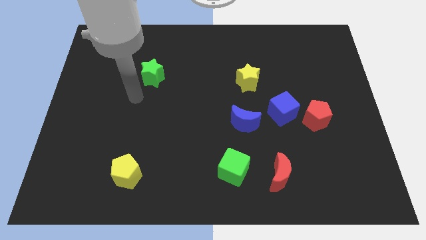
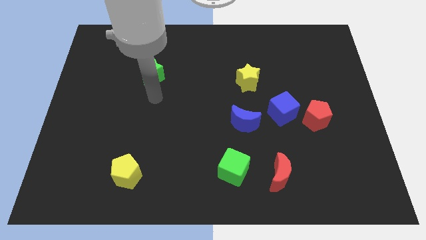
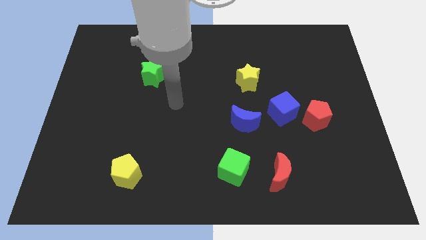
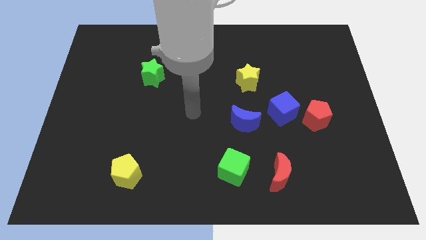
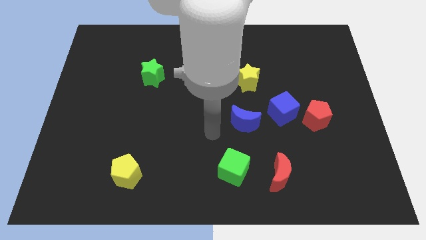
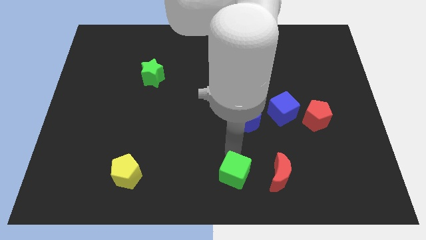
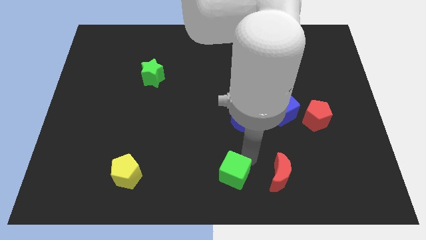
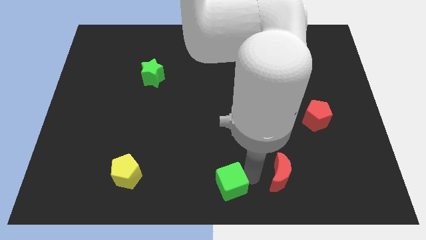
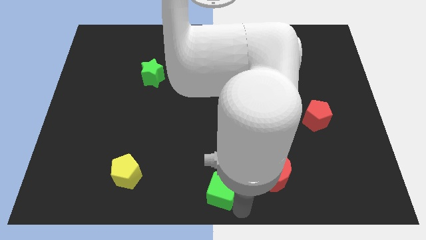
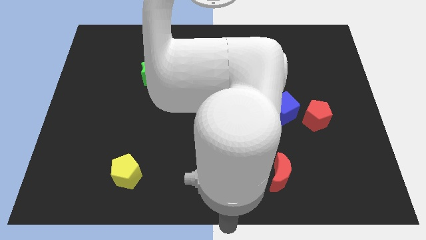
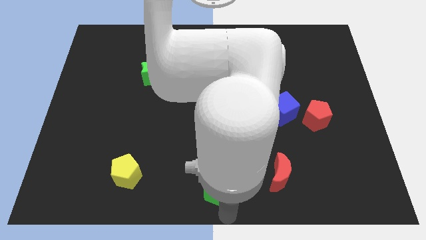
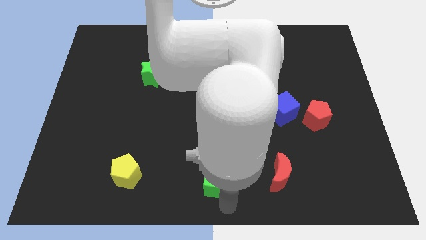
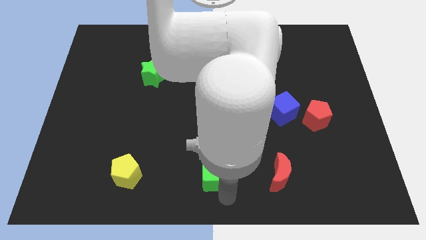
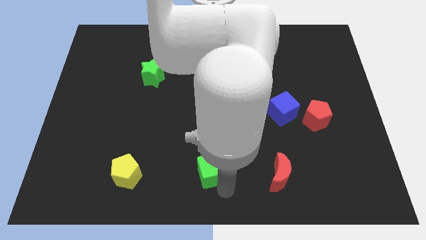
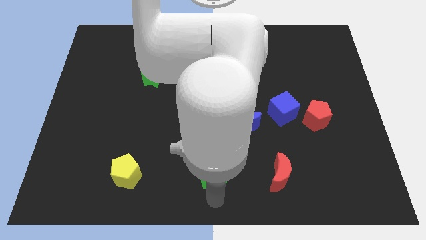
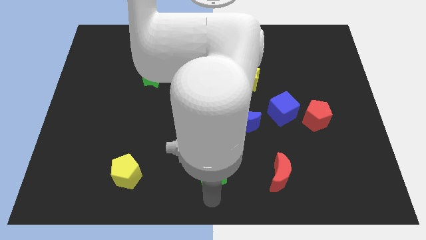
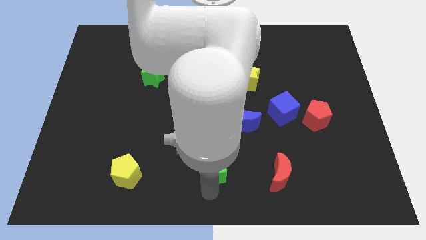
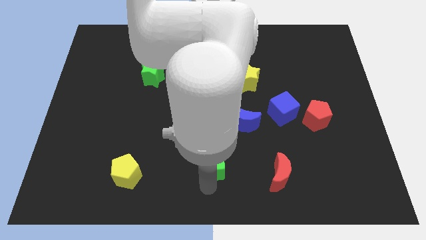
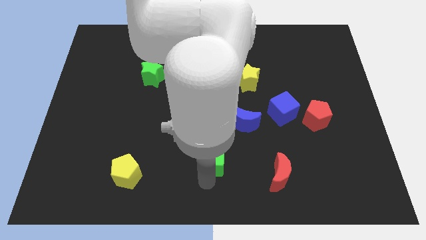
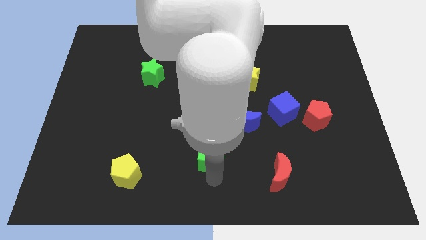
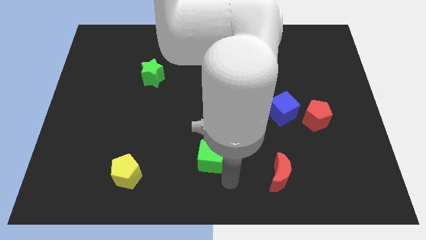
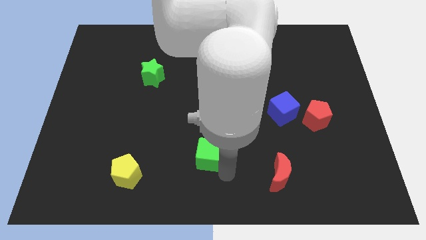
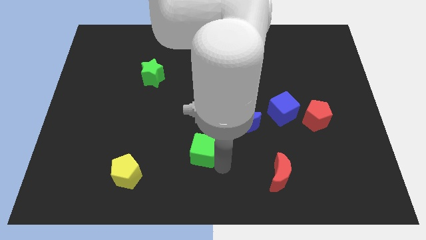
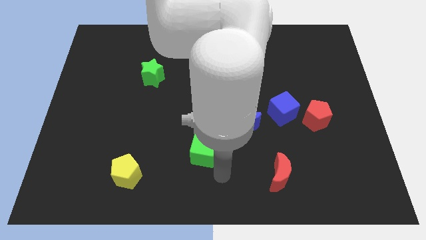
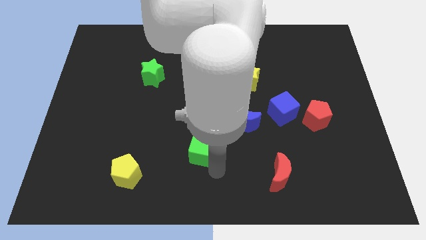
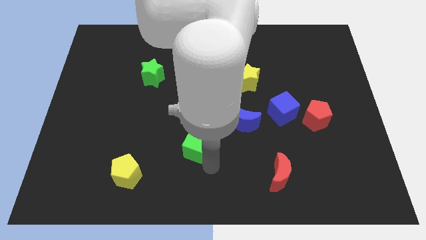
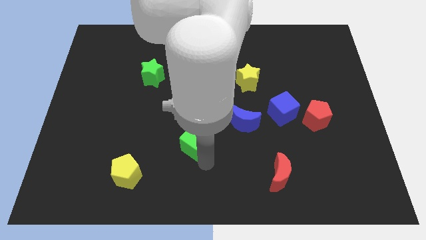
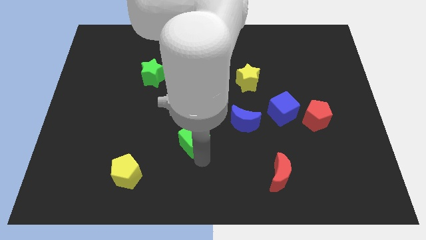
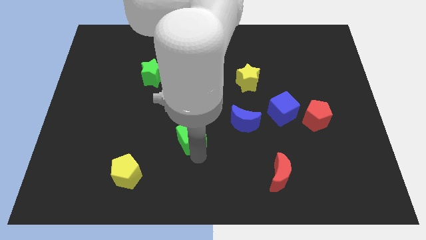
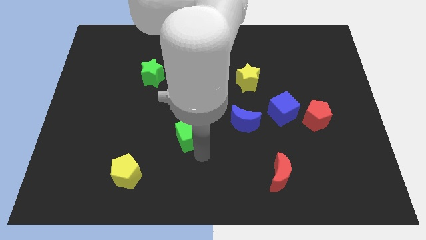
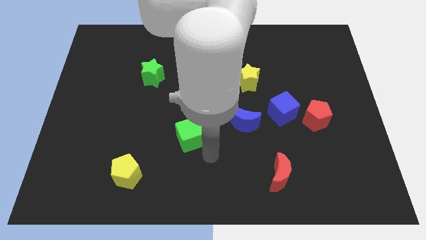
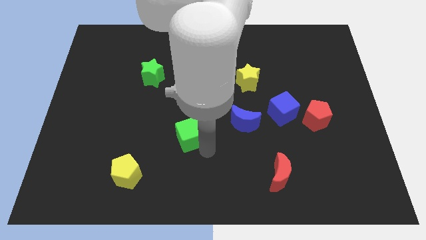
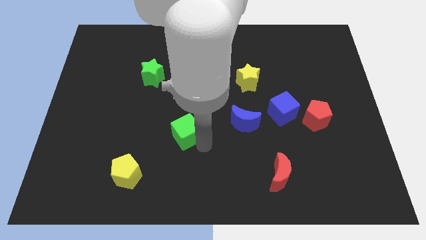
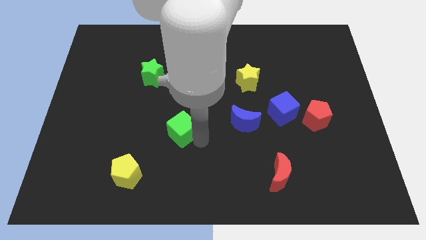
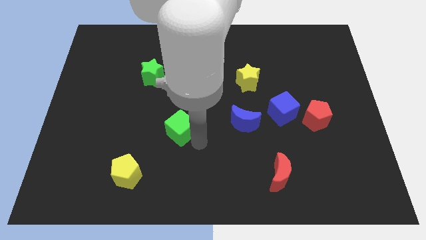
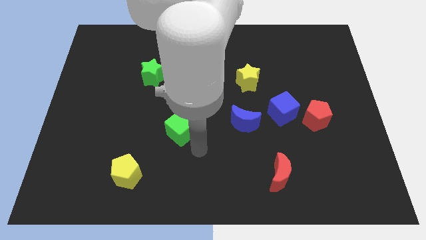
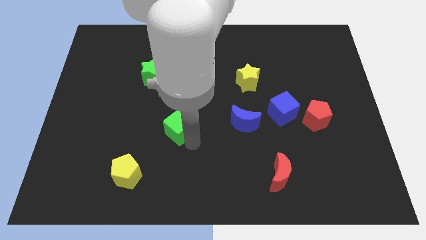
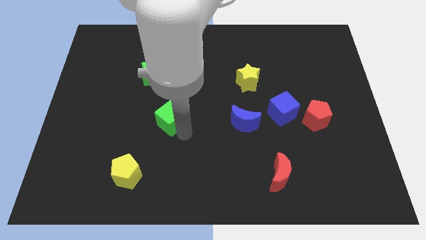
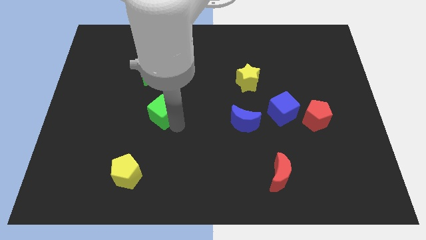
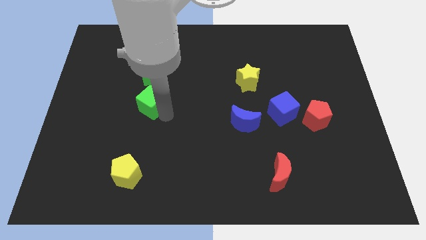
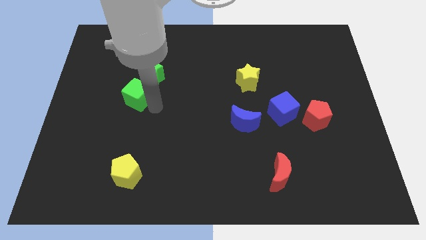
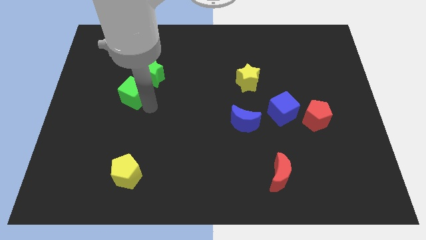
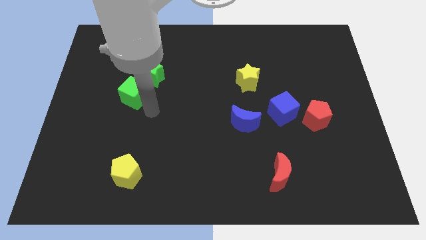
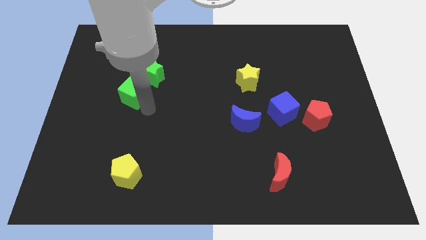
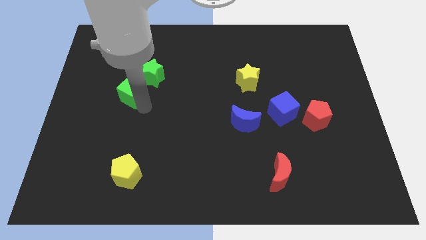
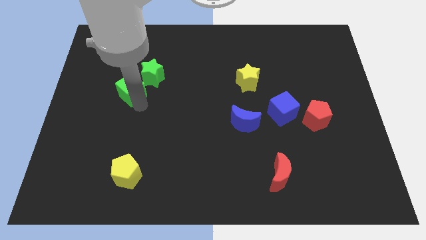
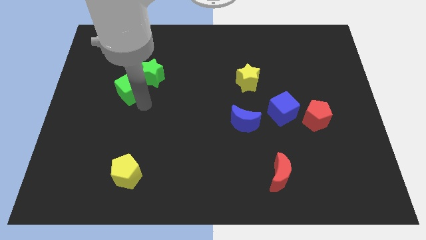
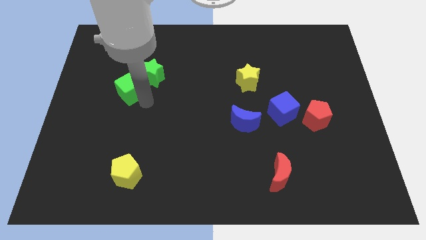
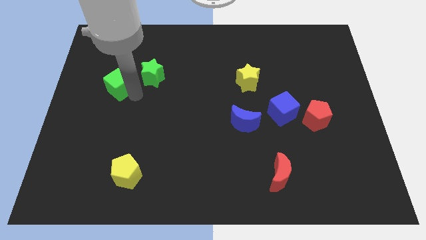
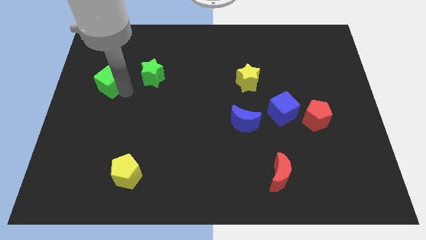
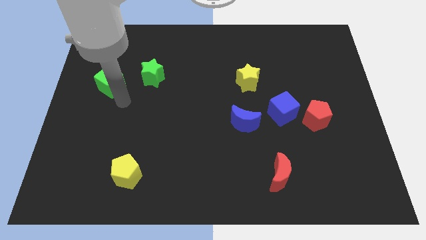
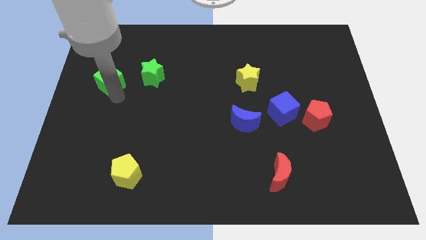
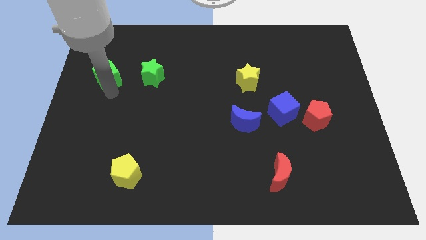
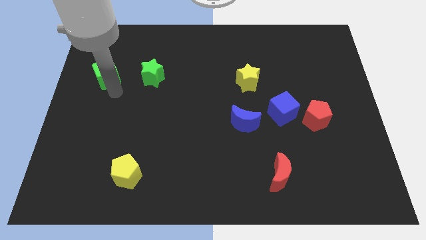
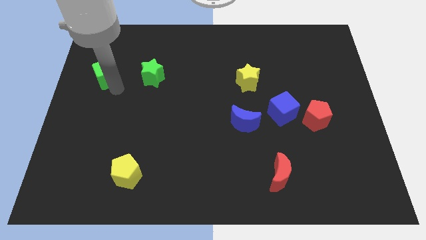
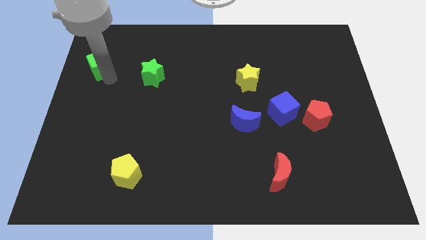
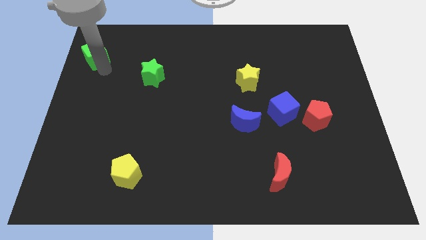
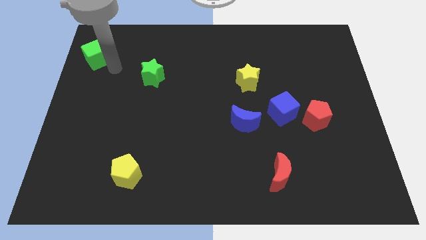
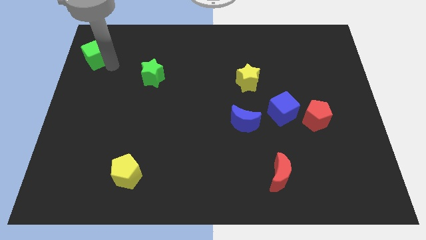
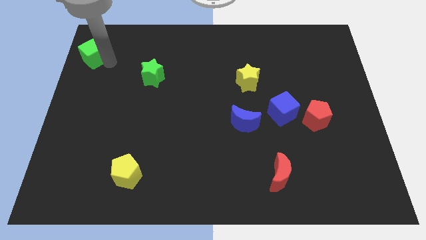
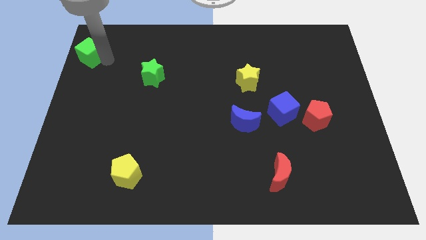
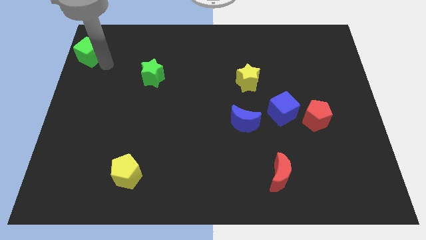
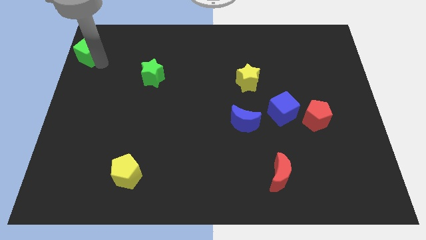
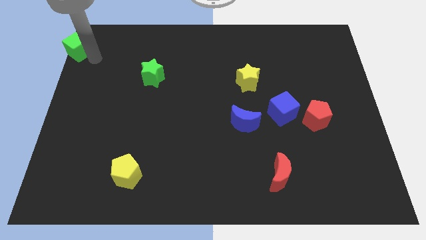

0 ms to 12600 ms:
slide the green cube to the top left of the board

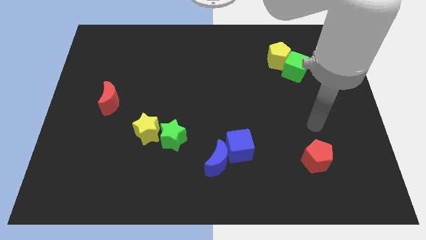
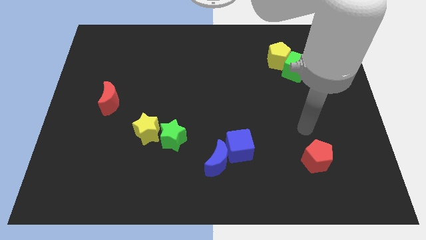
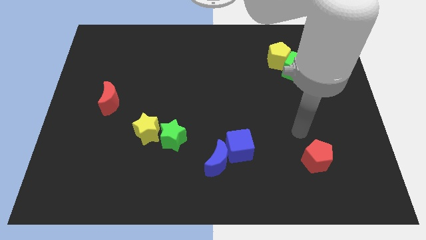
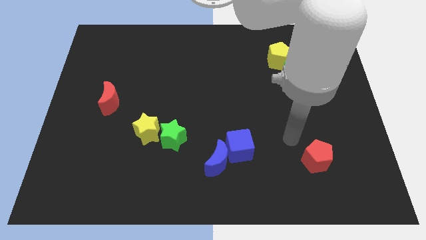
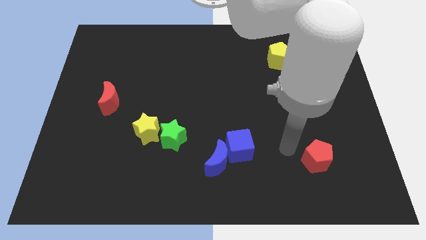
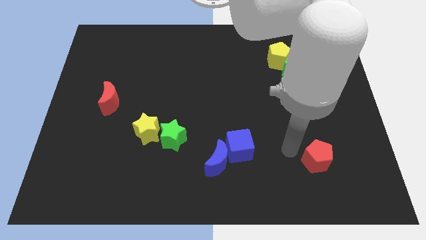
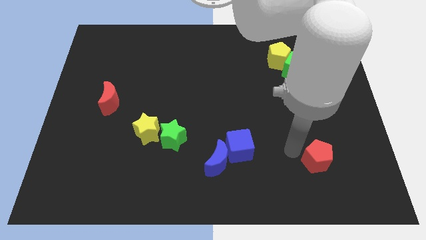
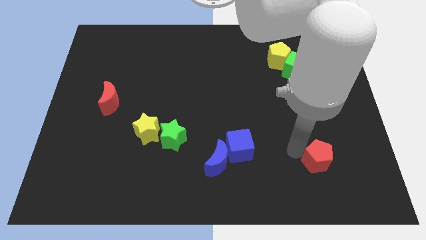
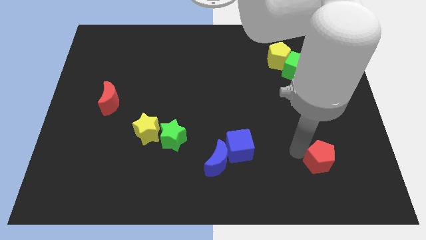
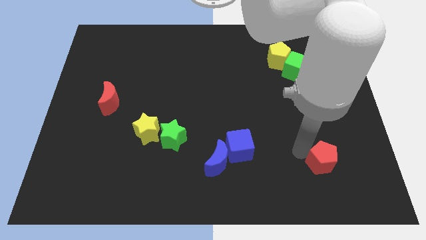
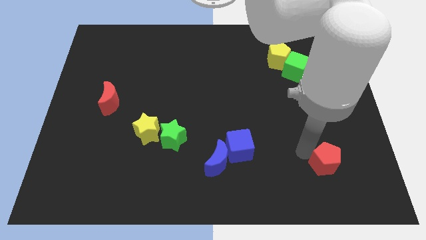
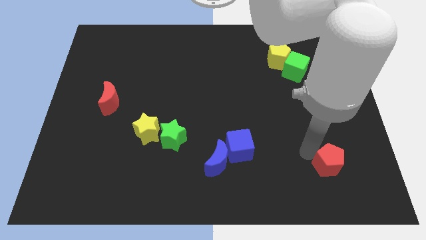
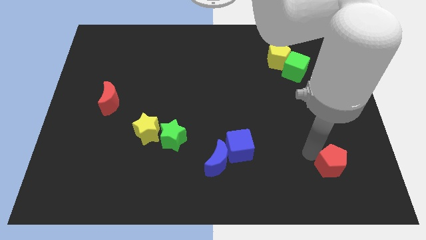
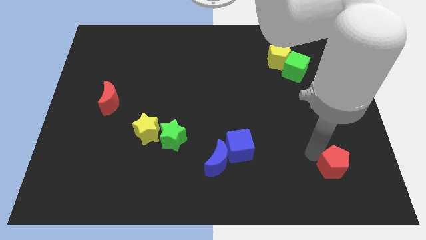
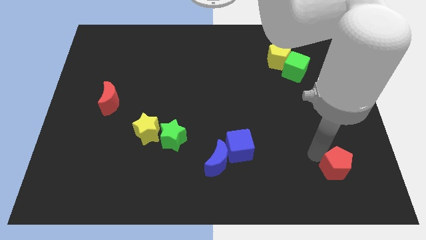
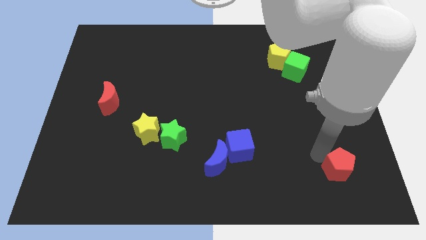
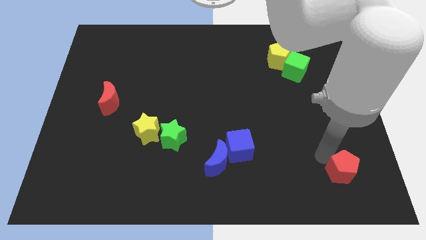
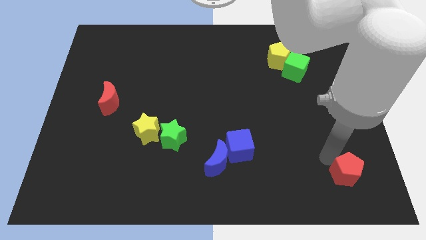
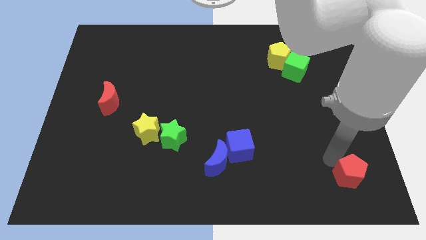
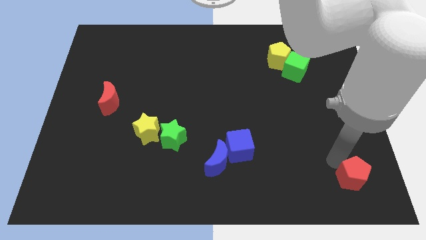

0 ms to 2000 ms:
push the red pentagon to the bottom right
